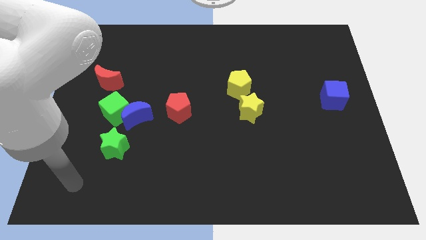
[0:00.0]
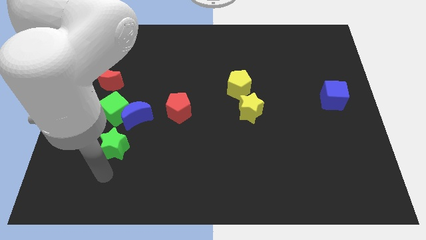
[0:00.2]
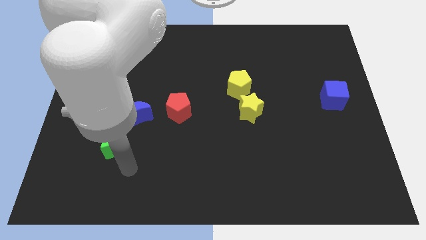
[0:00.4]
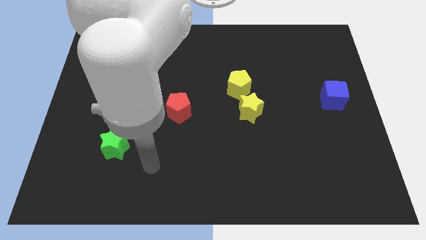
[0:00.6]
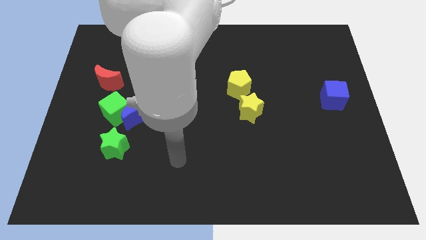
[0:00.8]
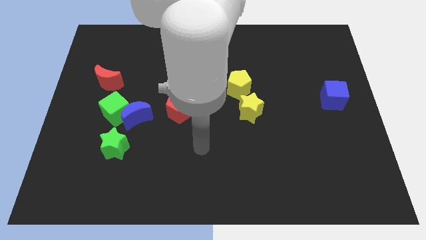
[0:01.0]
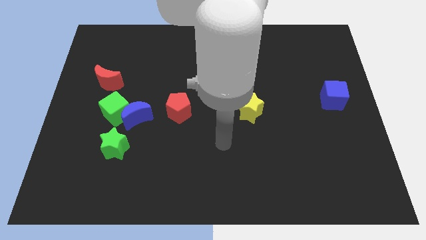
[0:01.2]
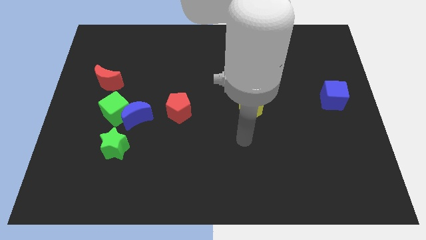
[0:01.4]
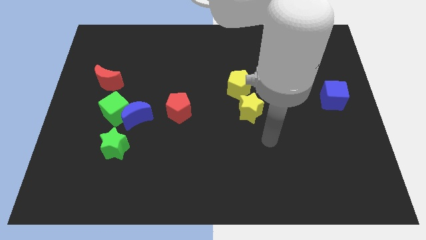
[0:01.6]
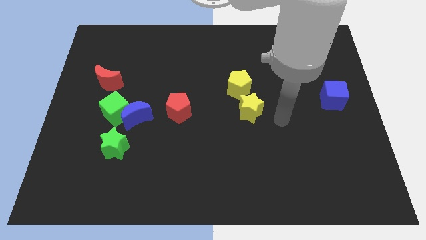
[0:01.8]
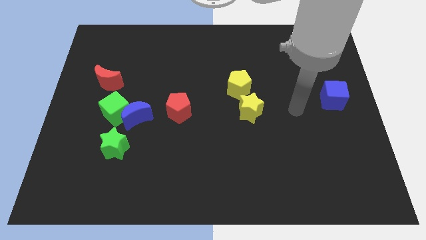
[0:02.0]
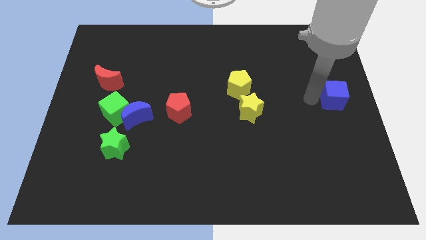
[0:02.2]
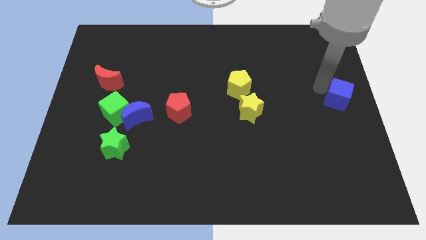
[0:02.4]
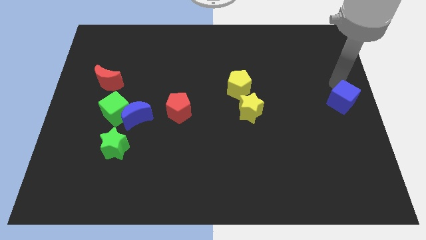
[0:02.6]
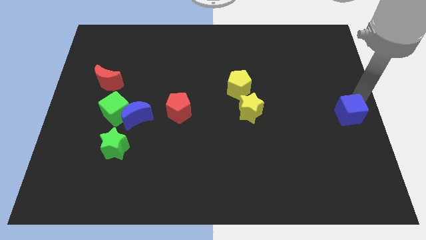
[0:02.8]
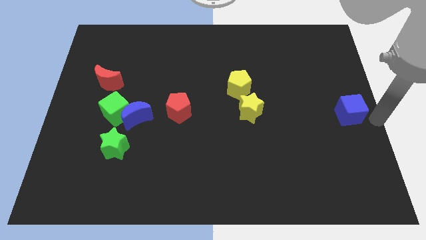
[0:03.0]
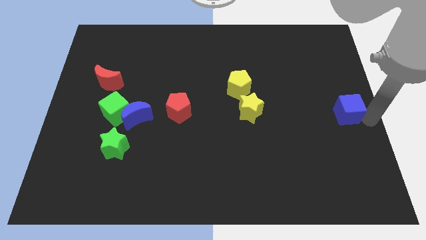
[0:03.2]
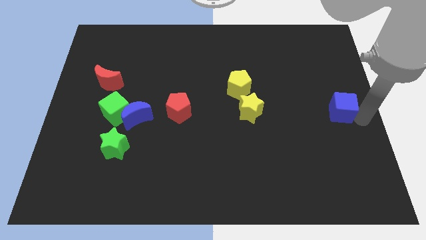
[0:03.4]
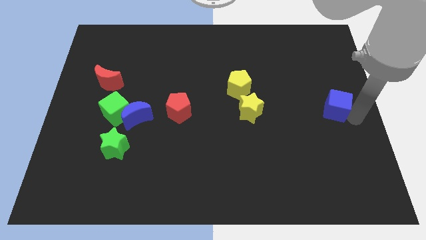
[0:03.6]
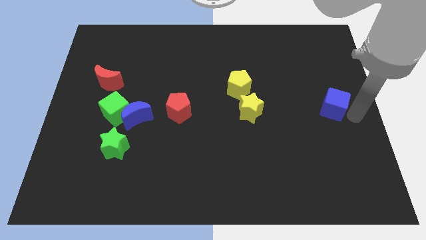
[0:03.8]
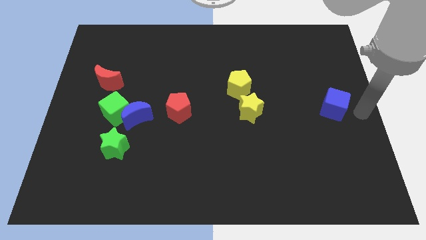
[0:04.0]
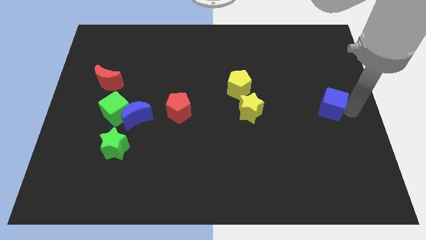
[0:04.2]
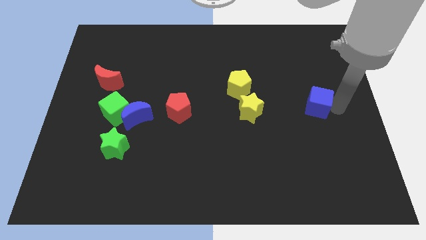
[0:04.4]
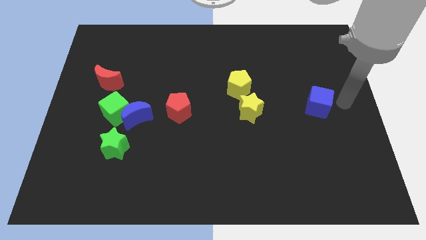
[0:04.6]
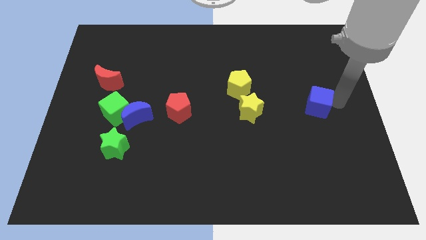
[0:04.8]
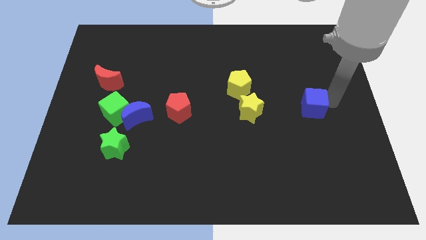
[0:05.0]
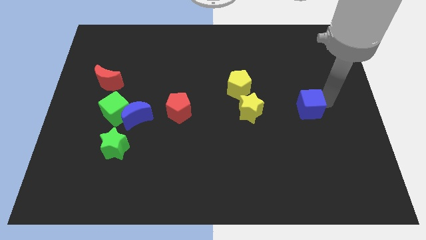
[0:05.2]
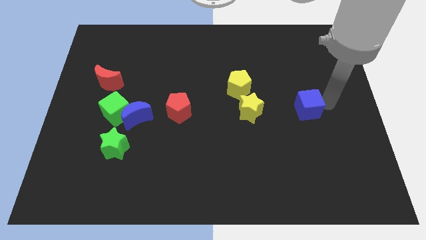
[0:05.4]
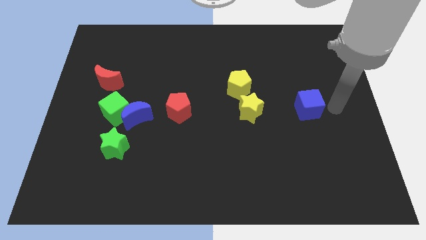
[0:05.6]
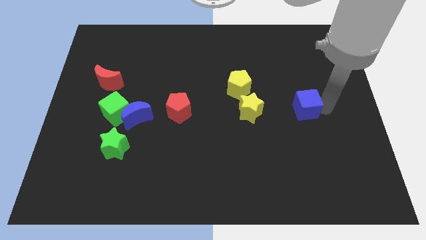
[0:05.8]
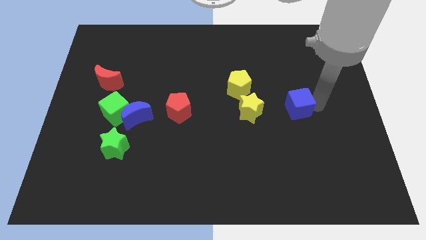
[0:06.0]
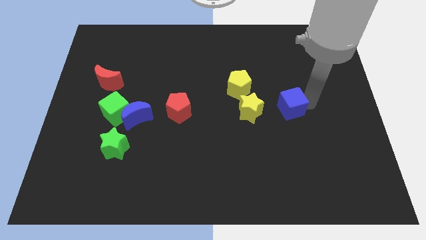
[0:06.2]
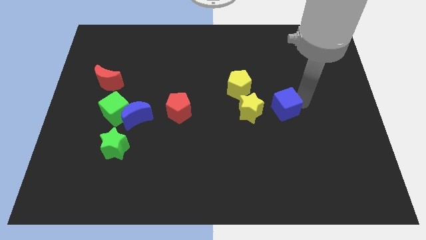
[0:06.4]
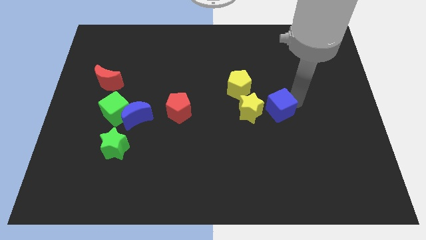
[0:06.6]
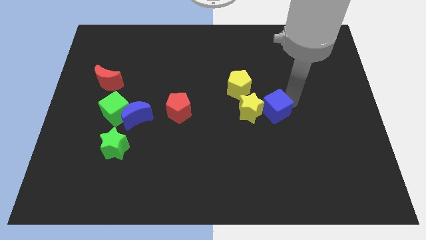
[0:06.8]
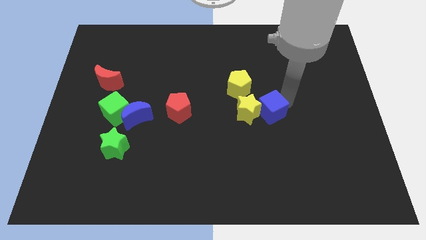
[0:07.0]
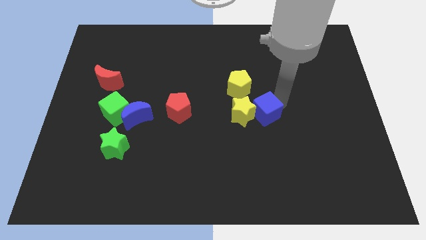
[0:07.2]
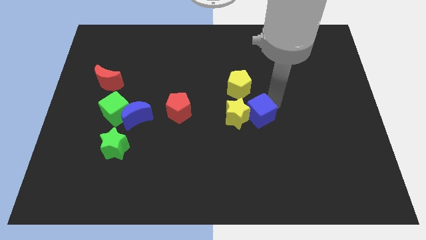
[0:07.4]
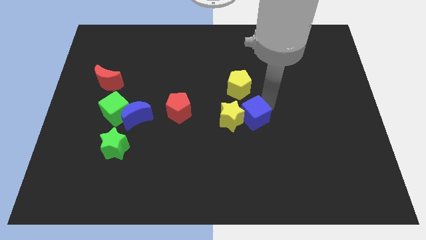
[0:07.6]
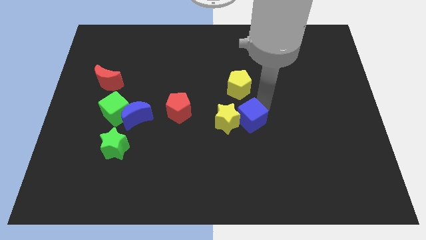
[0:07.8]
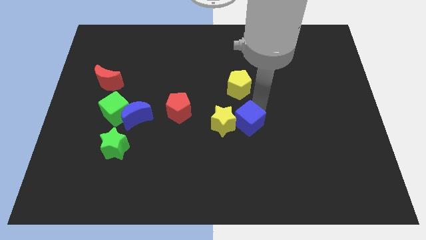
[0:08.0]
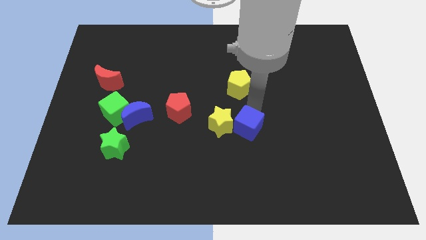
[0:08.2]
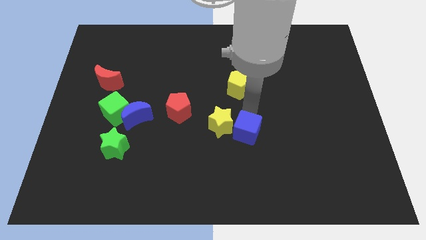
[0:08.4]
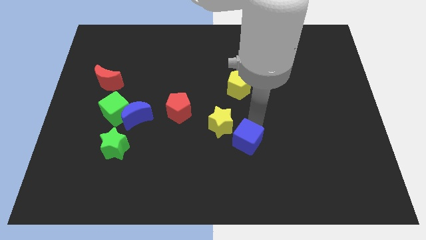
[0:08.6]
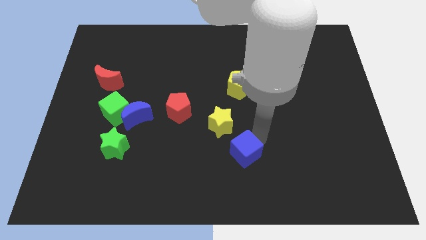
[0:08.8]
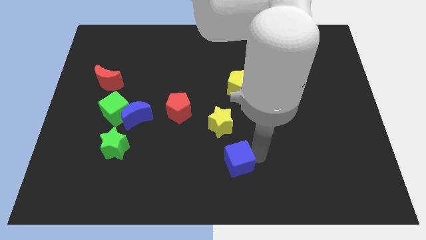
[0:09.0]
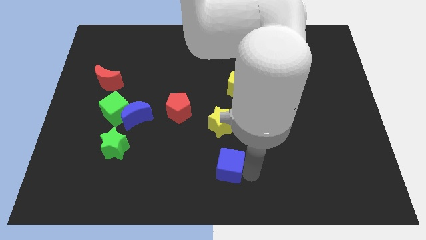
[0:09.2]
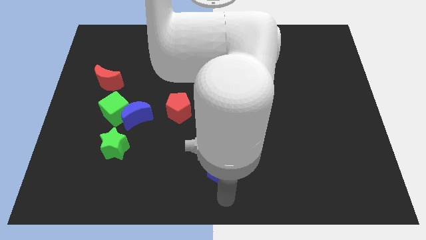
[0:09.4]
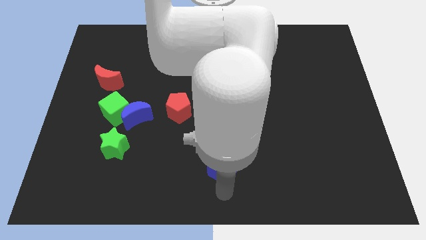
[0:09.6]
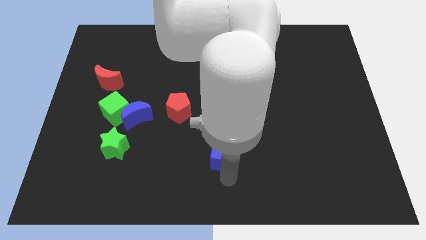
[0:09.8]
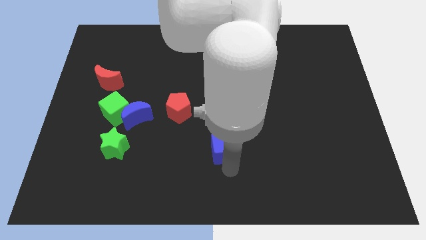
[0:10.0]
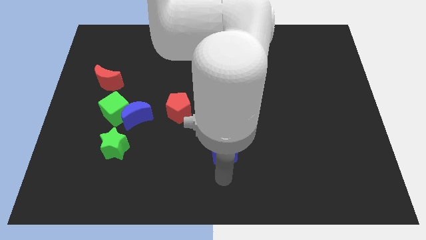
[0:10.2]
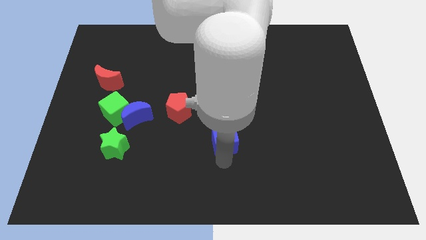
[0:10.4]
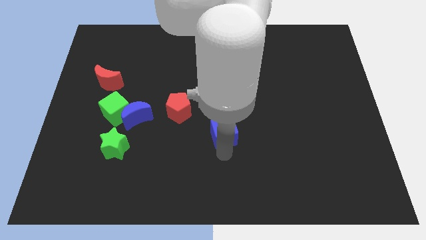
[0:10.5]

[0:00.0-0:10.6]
move the blue cube left

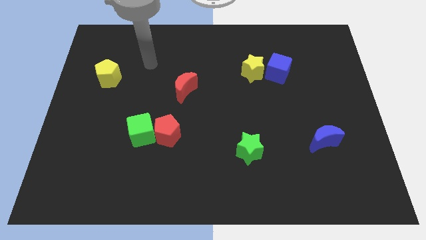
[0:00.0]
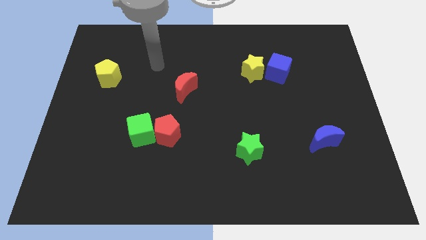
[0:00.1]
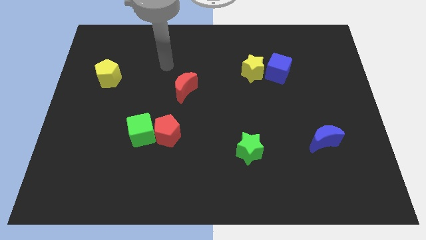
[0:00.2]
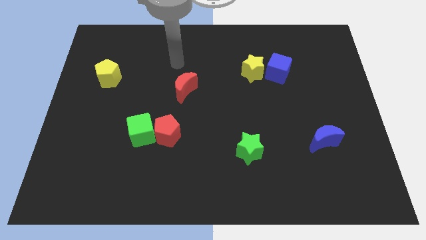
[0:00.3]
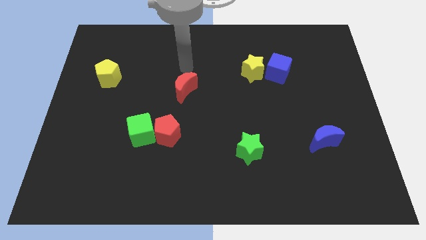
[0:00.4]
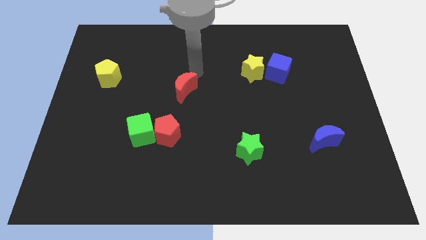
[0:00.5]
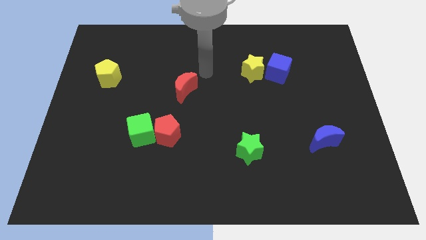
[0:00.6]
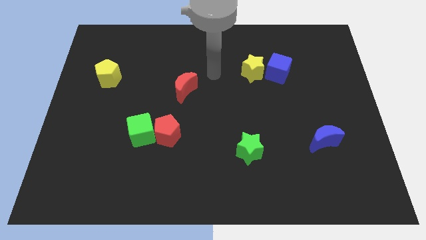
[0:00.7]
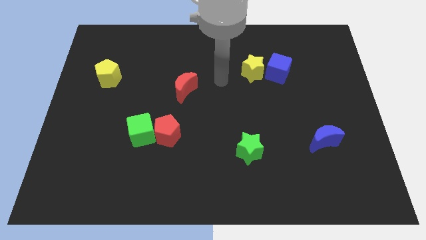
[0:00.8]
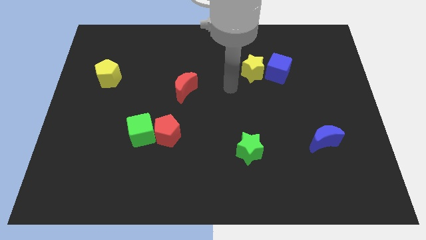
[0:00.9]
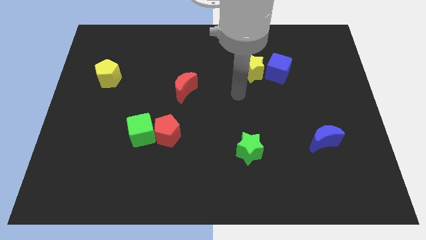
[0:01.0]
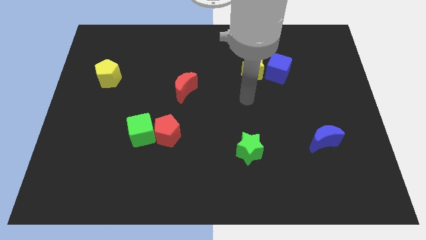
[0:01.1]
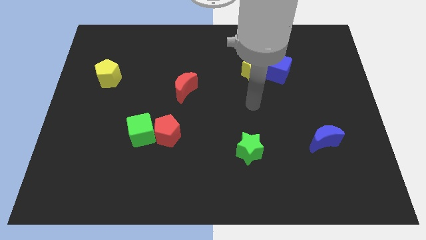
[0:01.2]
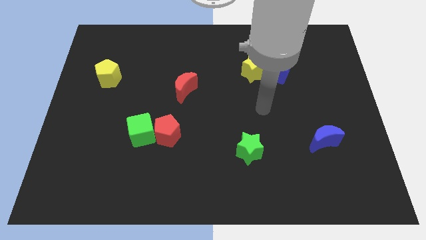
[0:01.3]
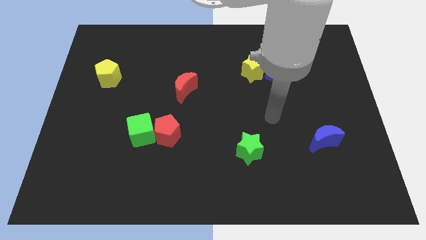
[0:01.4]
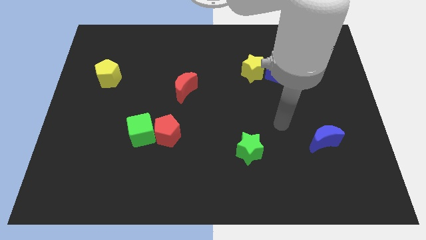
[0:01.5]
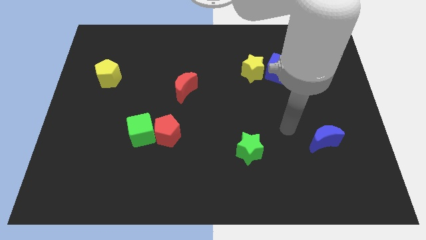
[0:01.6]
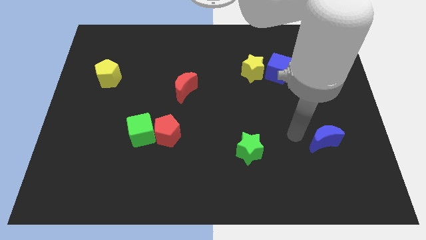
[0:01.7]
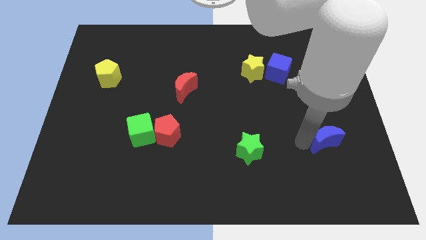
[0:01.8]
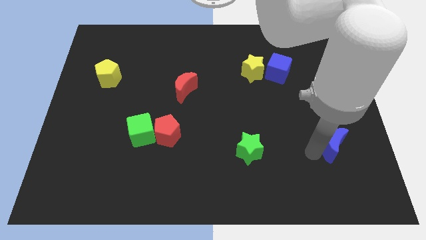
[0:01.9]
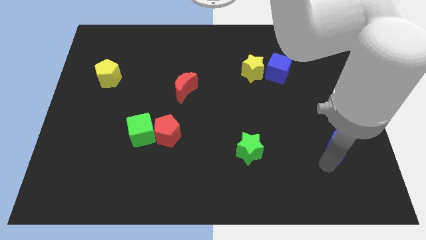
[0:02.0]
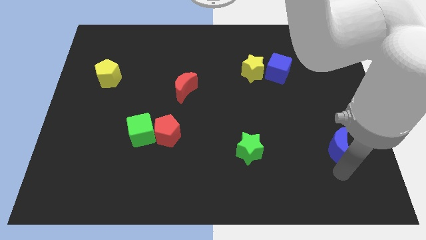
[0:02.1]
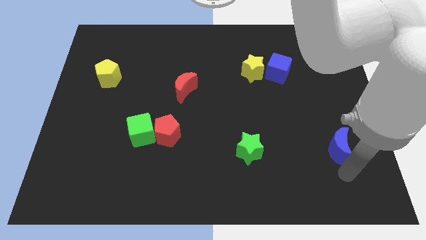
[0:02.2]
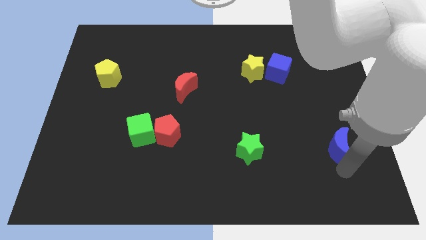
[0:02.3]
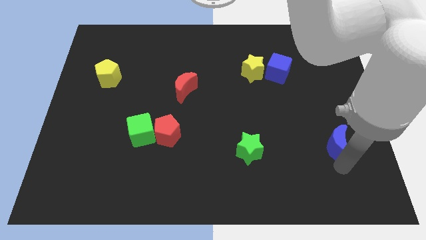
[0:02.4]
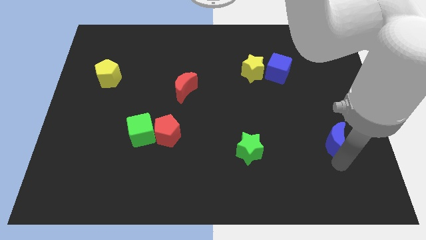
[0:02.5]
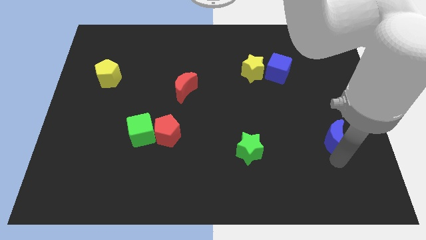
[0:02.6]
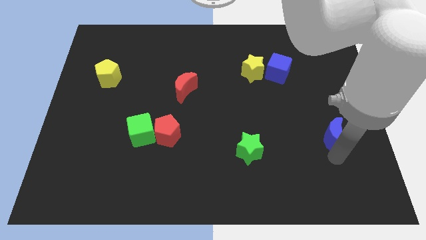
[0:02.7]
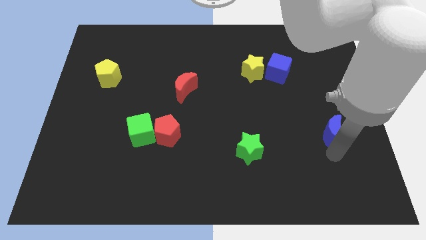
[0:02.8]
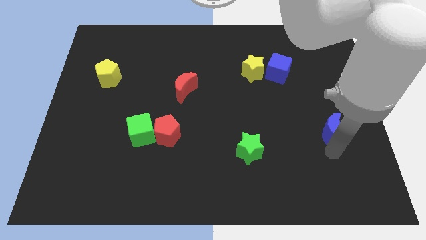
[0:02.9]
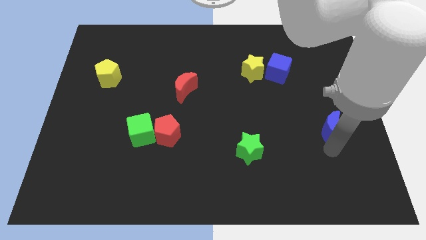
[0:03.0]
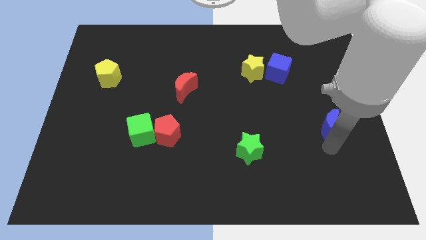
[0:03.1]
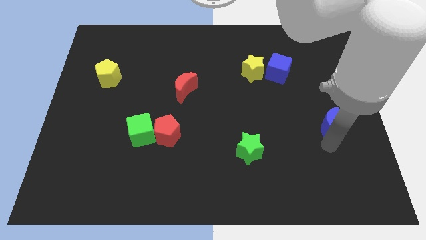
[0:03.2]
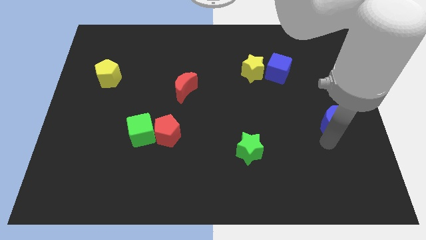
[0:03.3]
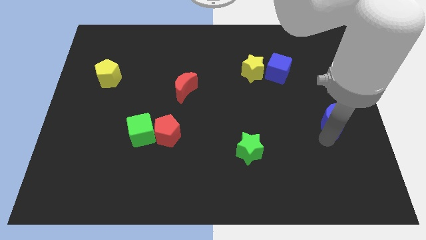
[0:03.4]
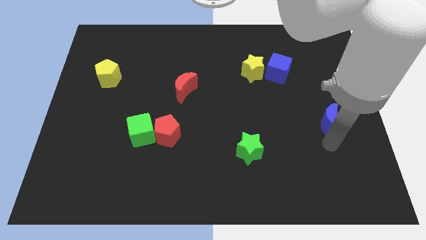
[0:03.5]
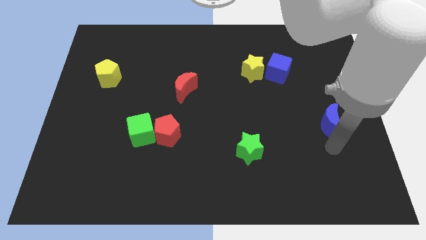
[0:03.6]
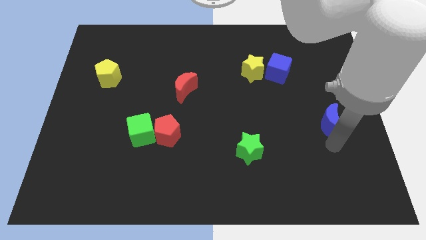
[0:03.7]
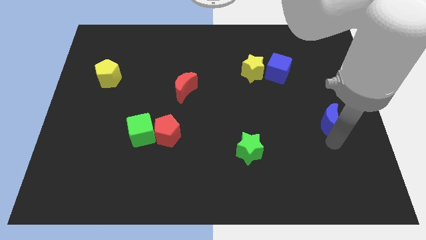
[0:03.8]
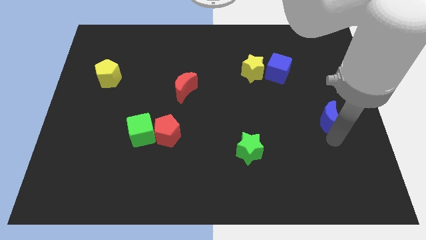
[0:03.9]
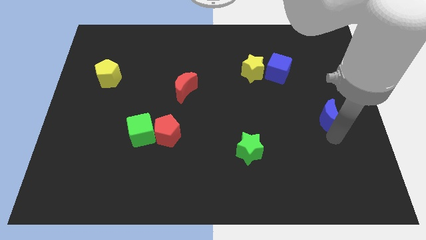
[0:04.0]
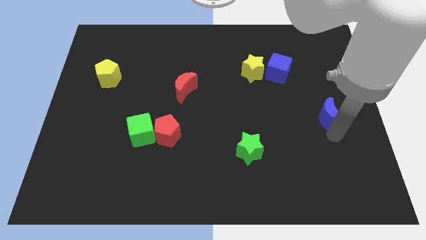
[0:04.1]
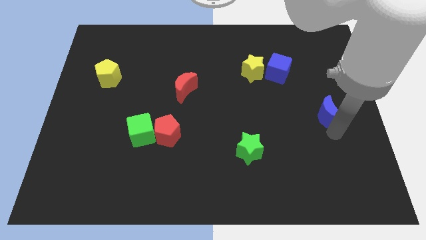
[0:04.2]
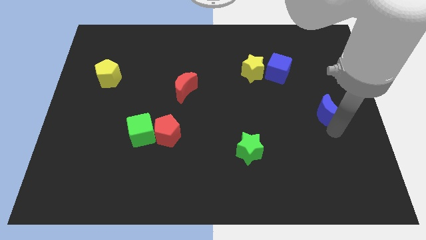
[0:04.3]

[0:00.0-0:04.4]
slightly move the blue moon upwards
